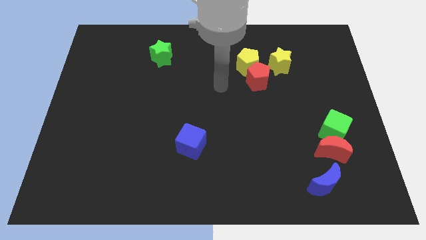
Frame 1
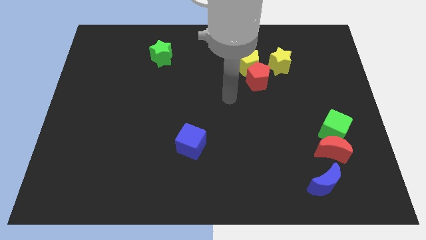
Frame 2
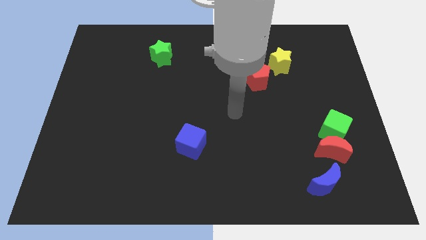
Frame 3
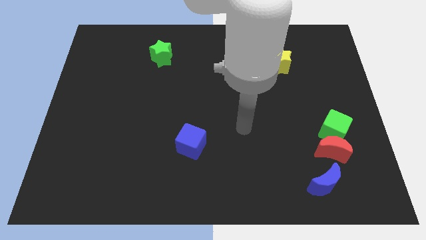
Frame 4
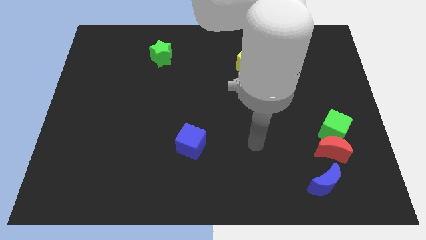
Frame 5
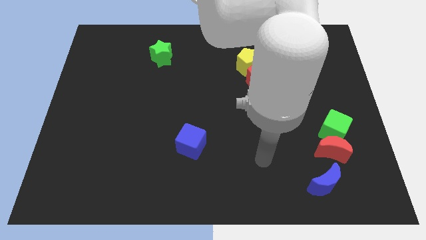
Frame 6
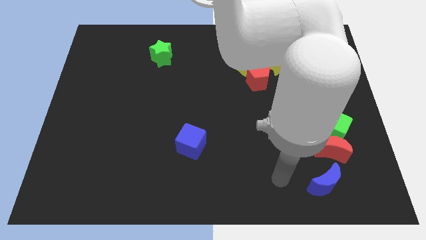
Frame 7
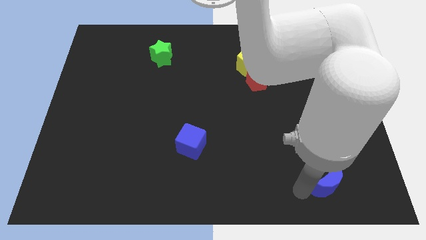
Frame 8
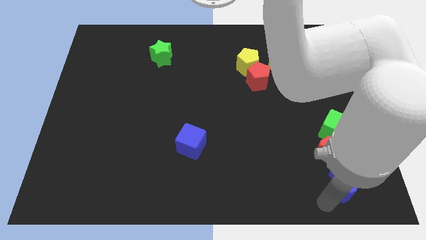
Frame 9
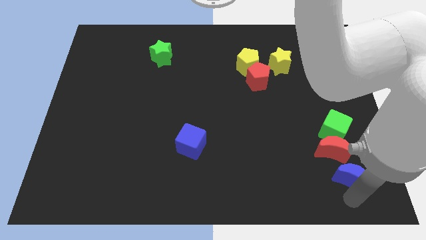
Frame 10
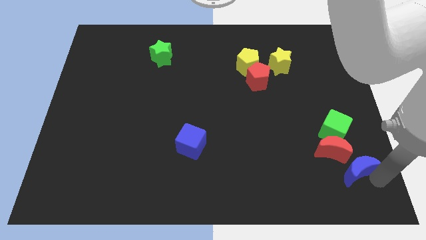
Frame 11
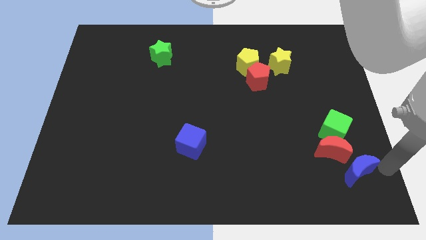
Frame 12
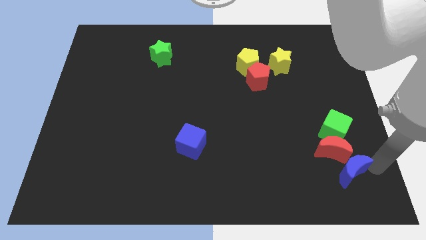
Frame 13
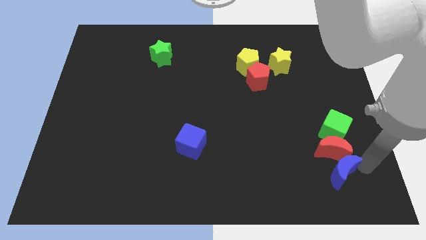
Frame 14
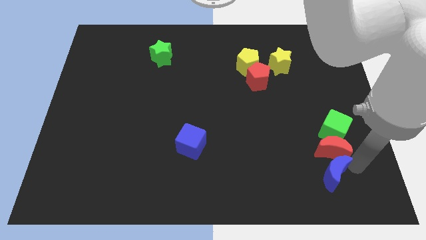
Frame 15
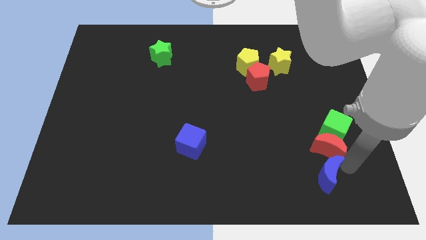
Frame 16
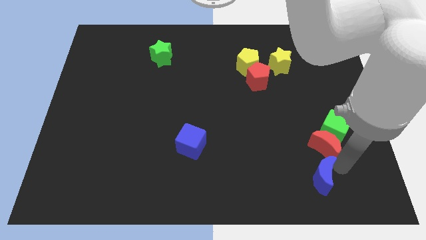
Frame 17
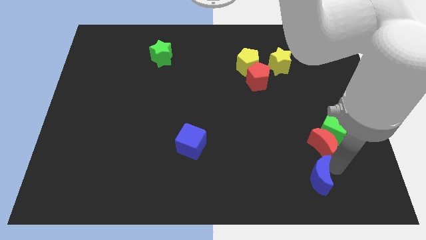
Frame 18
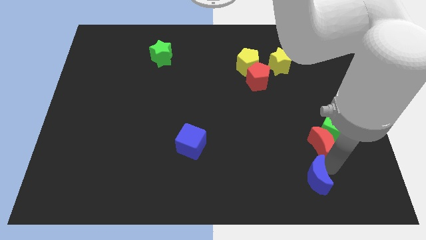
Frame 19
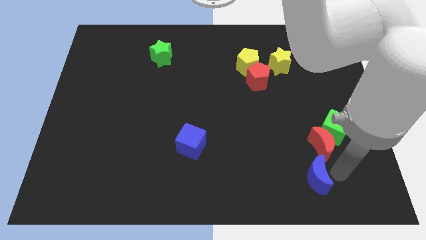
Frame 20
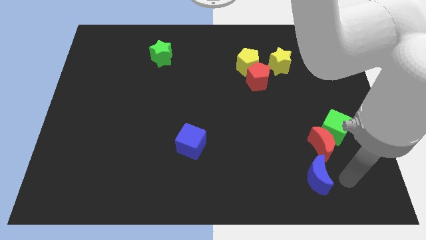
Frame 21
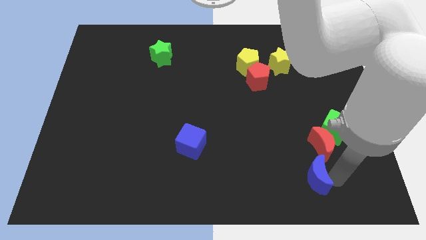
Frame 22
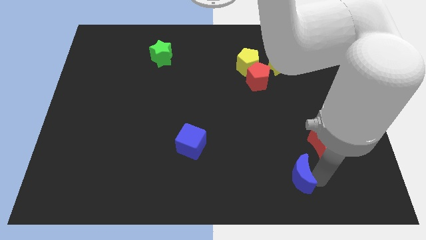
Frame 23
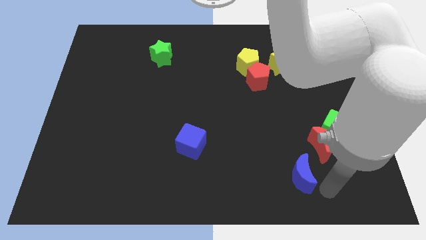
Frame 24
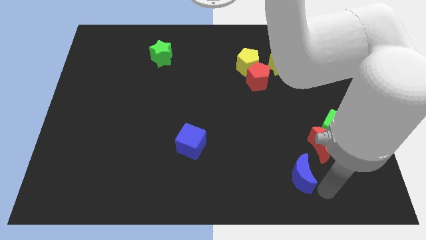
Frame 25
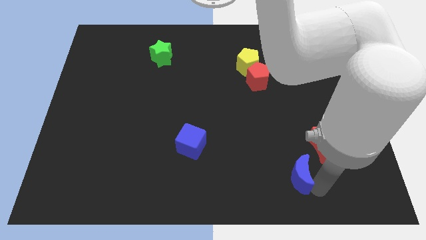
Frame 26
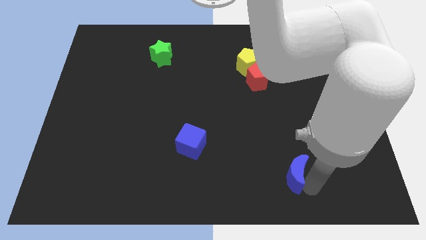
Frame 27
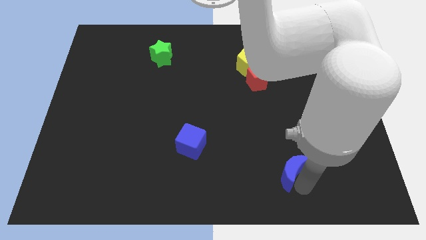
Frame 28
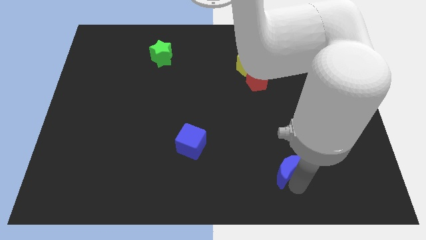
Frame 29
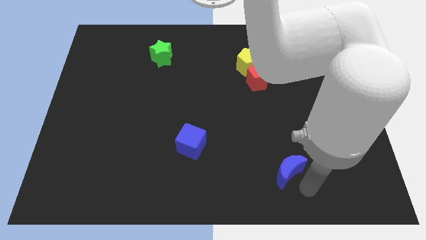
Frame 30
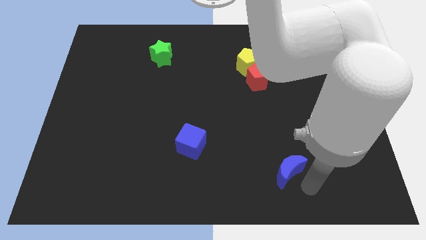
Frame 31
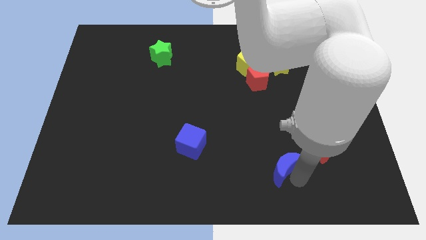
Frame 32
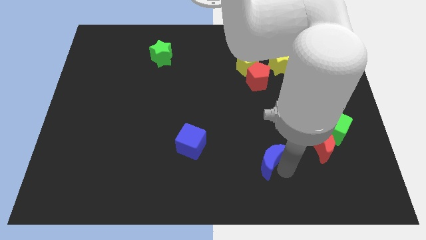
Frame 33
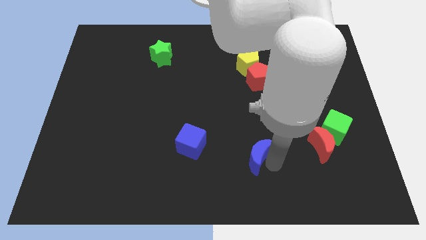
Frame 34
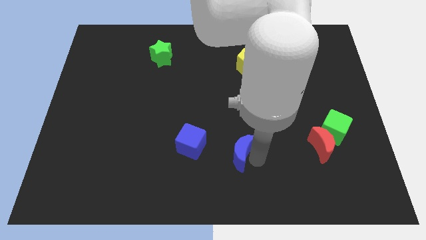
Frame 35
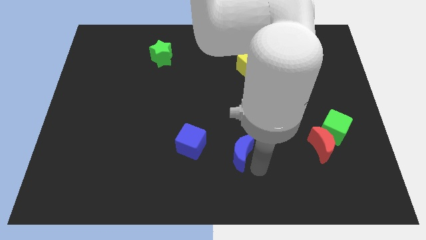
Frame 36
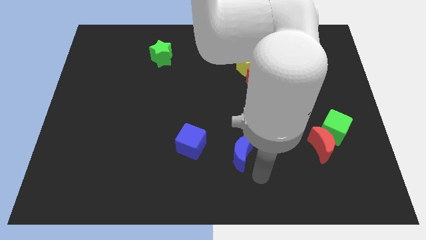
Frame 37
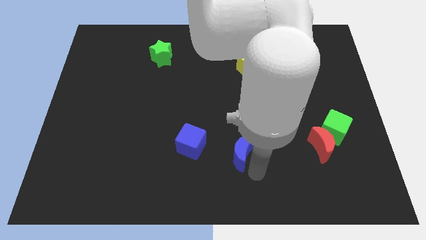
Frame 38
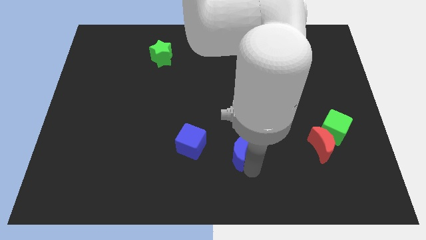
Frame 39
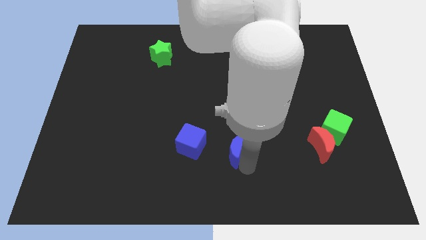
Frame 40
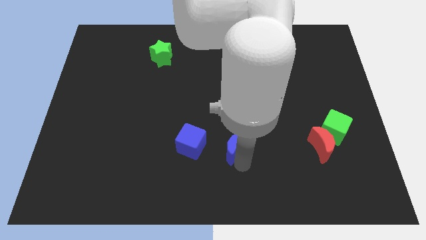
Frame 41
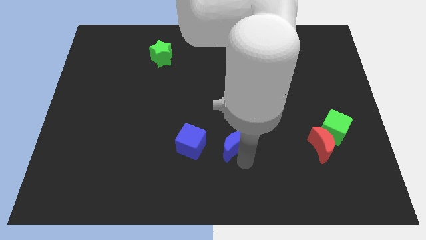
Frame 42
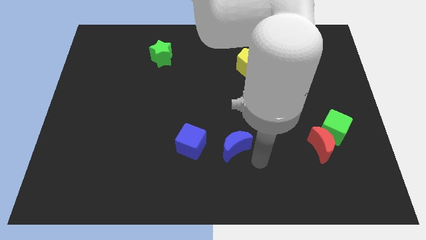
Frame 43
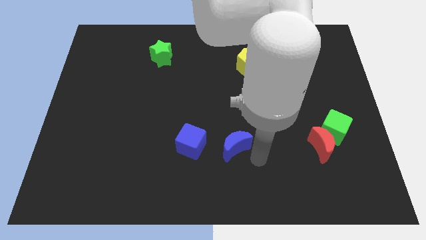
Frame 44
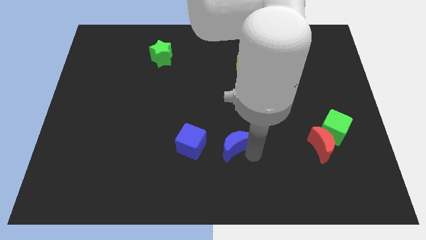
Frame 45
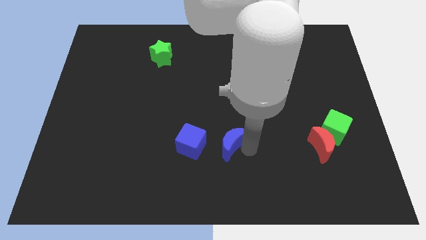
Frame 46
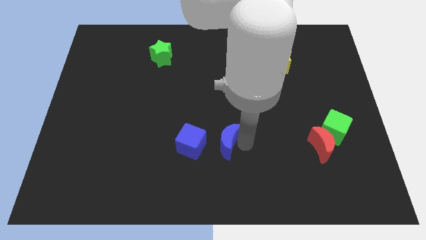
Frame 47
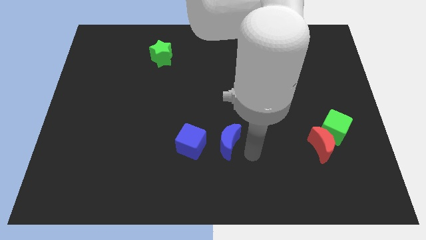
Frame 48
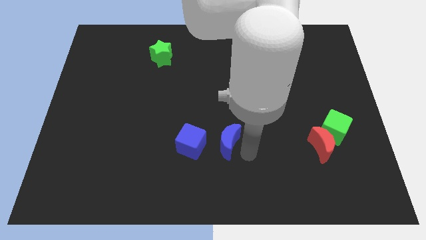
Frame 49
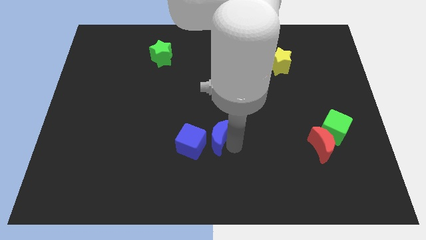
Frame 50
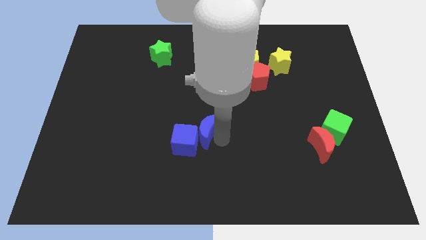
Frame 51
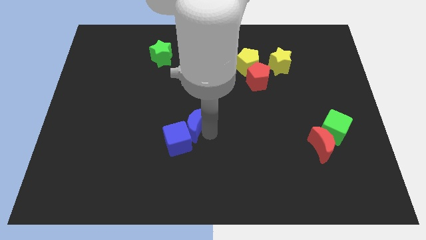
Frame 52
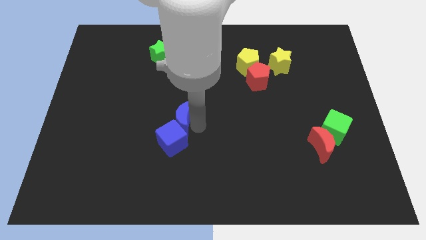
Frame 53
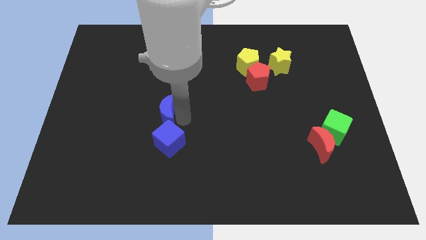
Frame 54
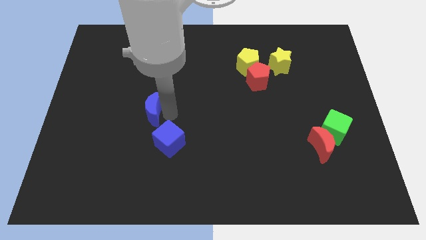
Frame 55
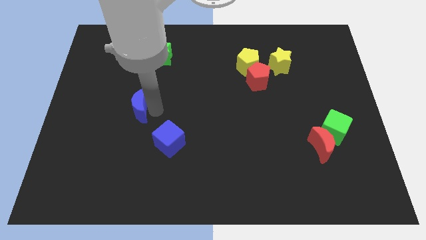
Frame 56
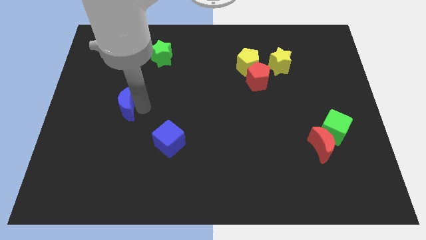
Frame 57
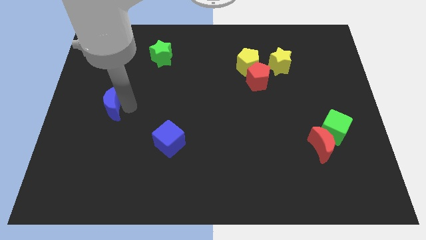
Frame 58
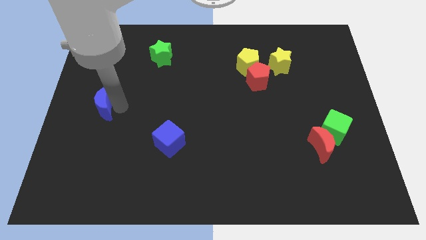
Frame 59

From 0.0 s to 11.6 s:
push the blue moon to the left side

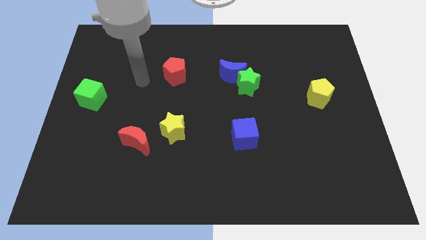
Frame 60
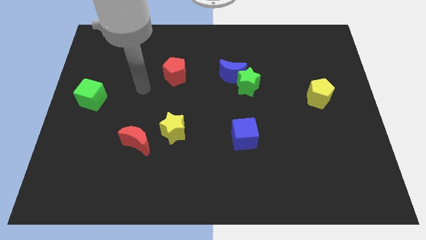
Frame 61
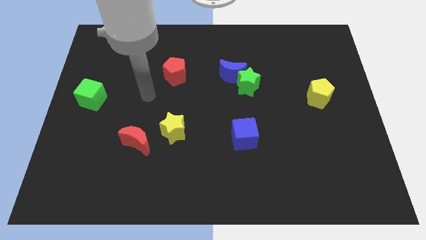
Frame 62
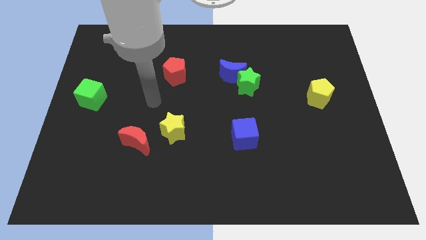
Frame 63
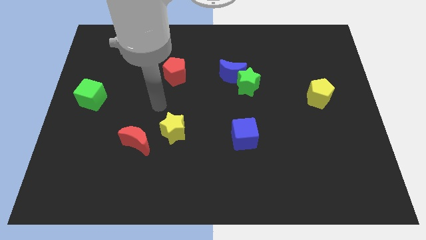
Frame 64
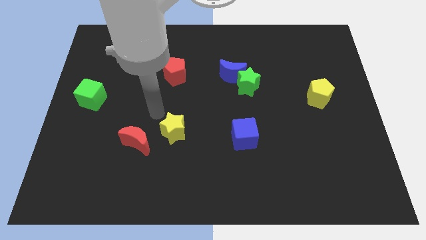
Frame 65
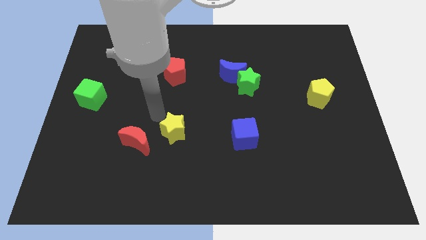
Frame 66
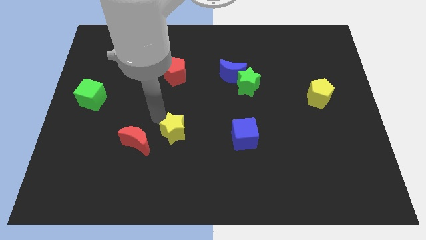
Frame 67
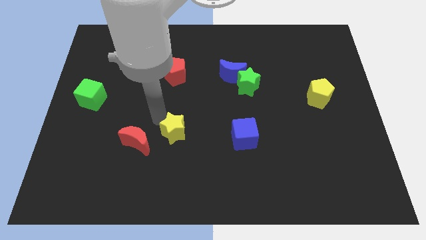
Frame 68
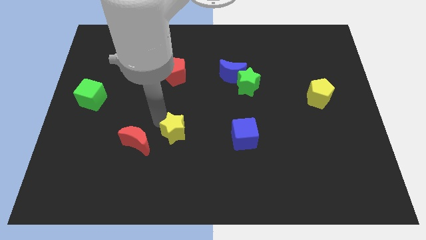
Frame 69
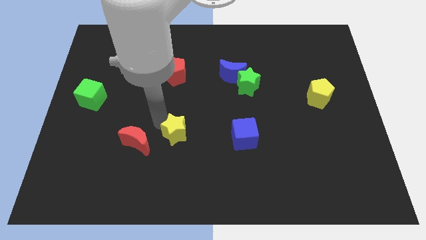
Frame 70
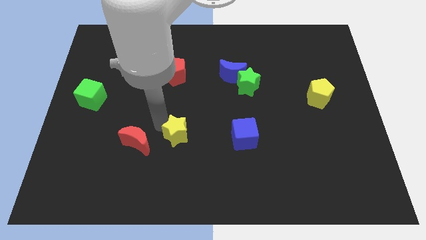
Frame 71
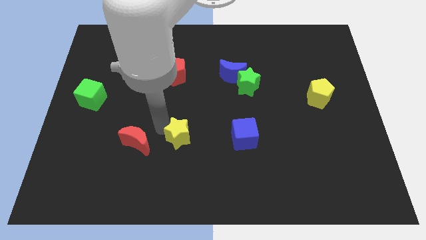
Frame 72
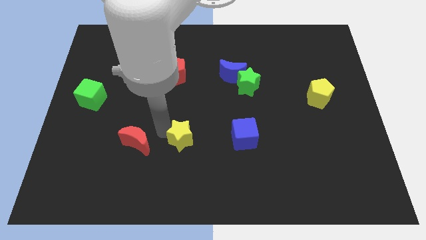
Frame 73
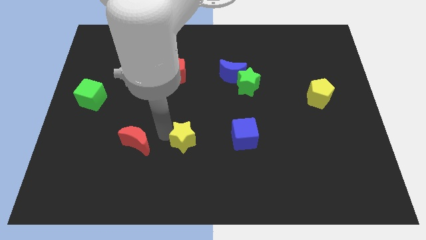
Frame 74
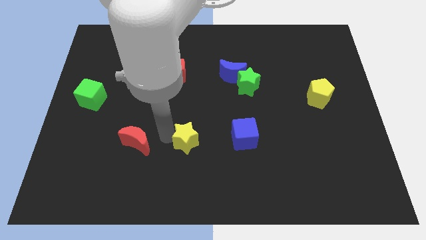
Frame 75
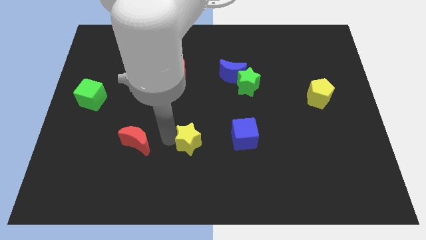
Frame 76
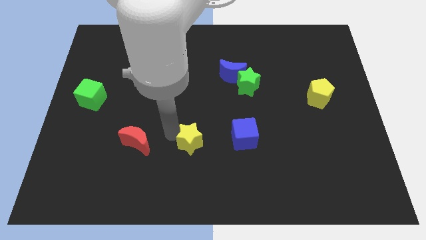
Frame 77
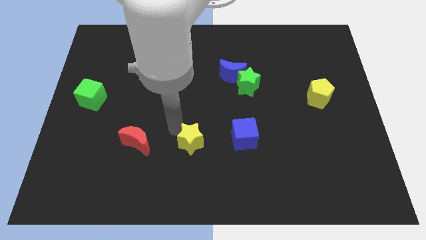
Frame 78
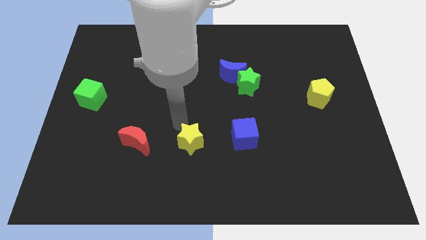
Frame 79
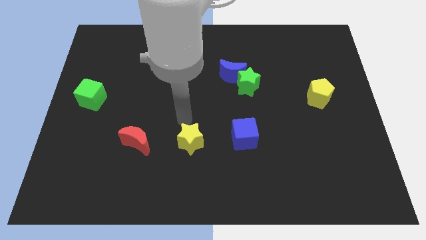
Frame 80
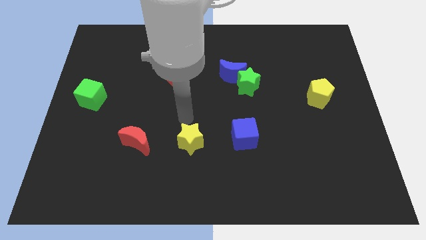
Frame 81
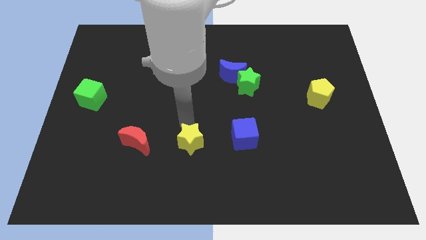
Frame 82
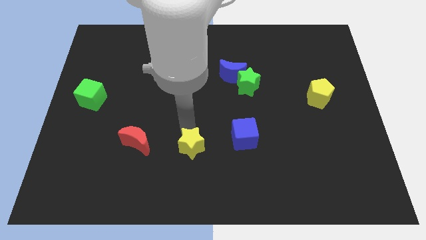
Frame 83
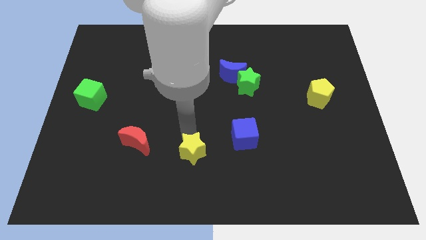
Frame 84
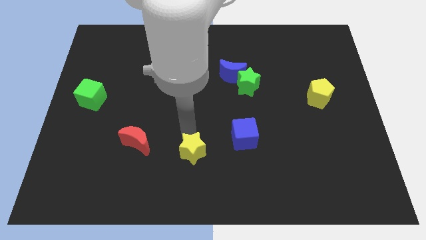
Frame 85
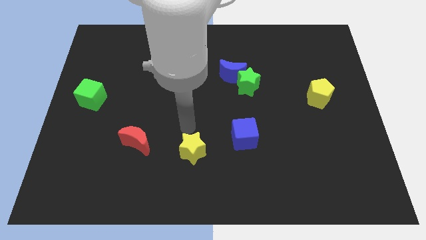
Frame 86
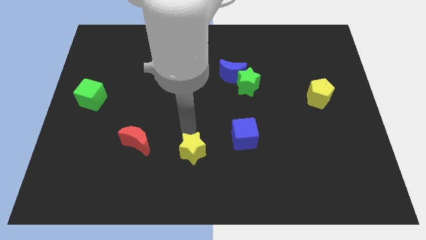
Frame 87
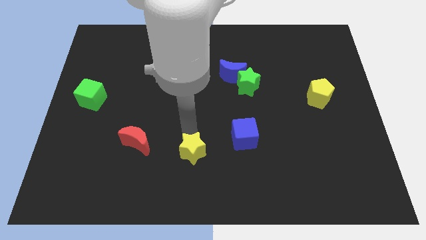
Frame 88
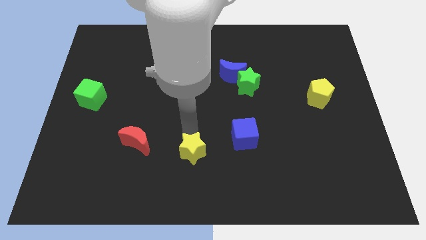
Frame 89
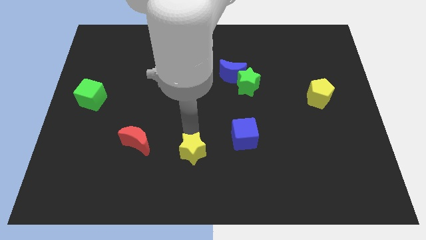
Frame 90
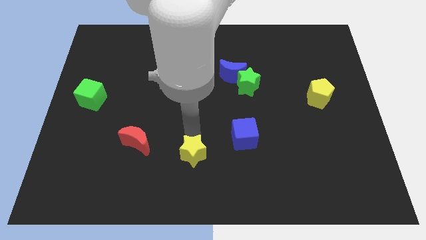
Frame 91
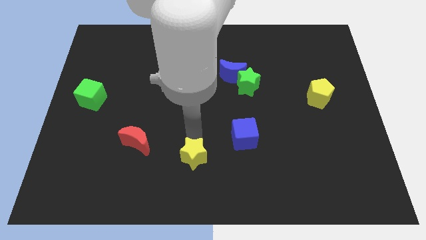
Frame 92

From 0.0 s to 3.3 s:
slide the yellow star to the bottom side
